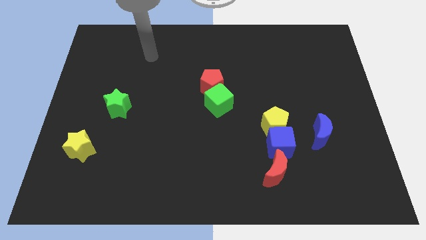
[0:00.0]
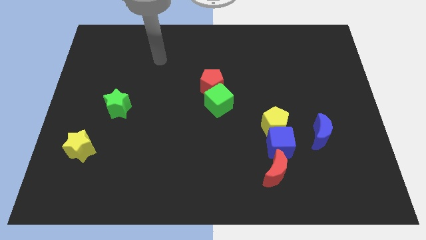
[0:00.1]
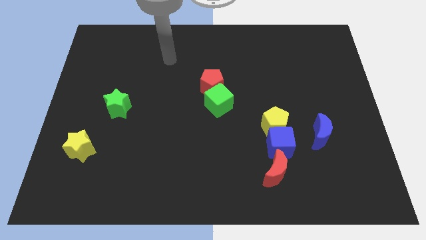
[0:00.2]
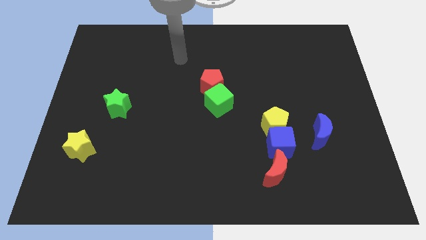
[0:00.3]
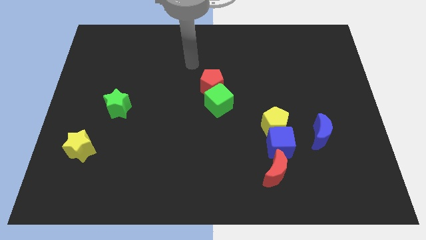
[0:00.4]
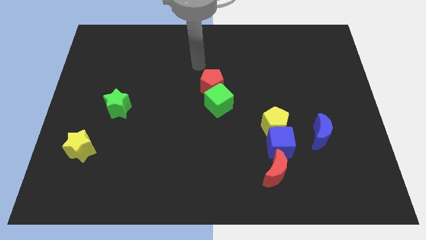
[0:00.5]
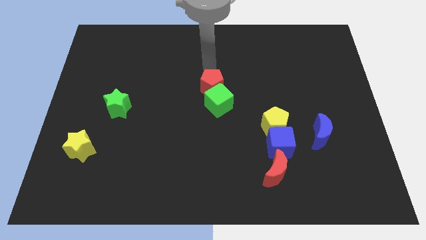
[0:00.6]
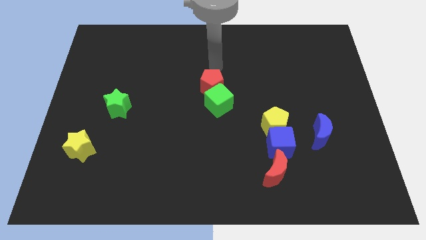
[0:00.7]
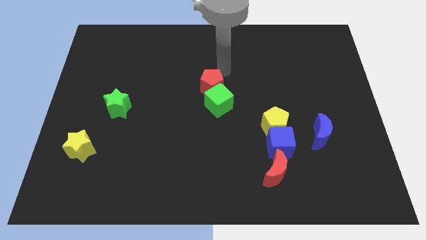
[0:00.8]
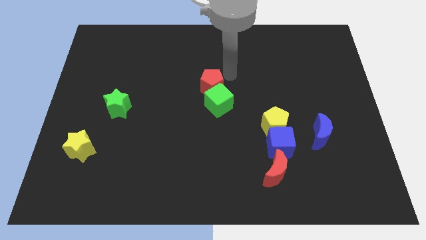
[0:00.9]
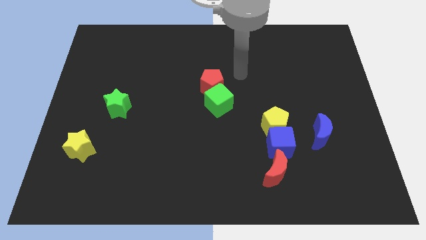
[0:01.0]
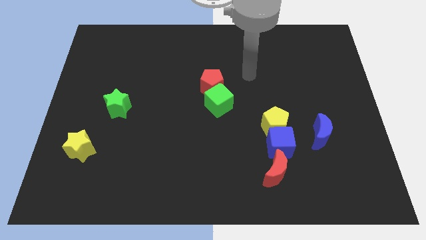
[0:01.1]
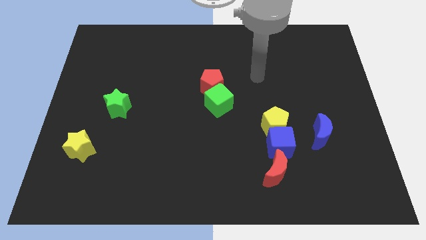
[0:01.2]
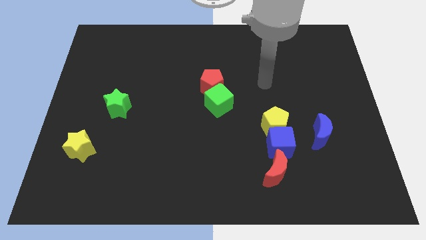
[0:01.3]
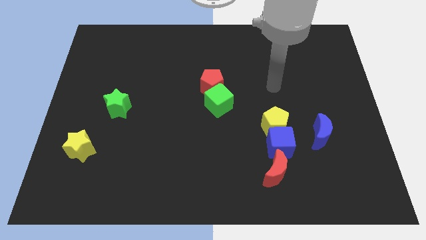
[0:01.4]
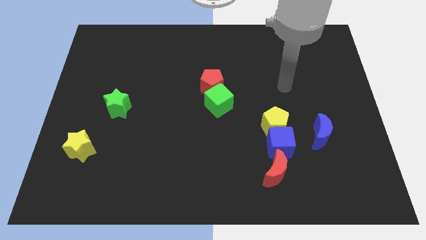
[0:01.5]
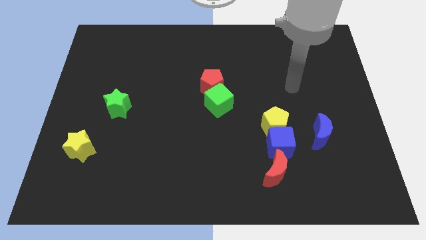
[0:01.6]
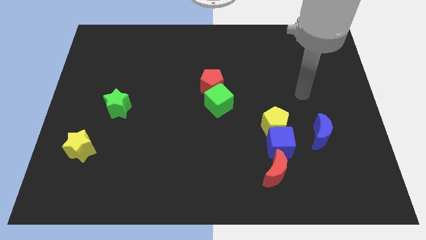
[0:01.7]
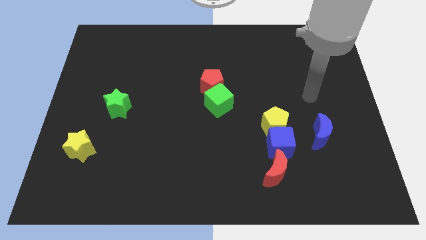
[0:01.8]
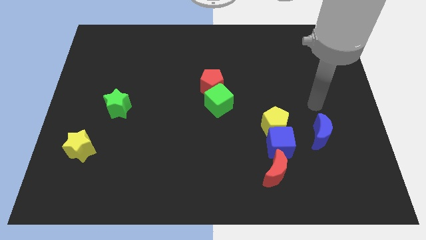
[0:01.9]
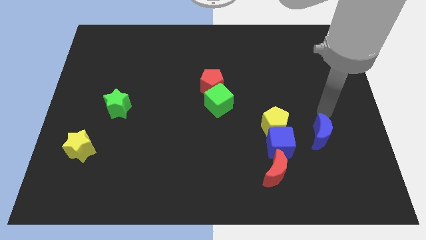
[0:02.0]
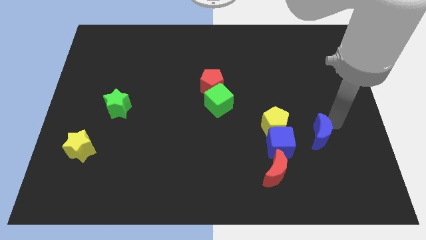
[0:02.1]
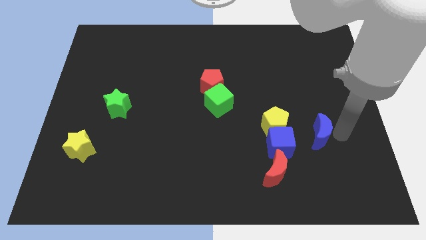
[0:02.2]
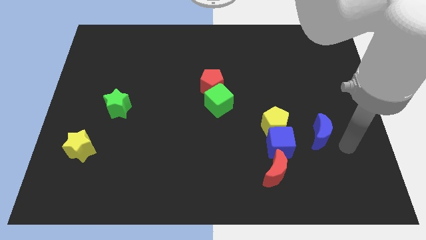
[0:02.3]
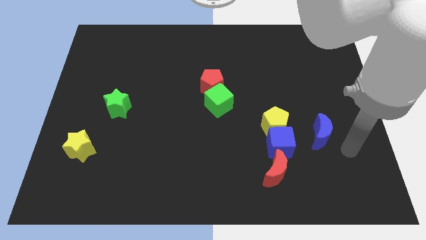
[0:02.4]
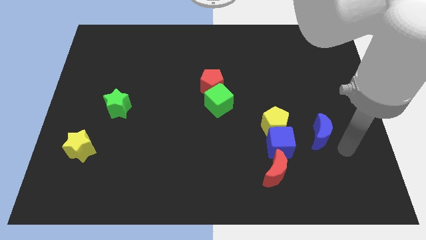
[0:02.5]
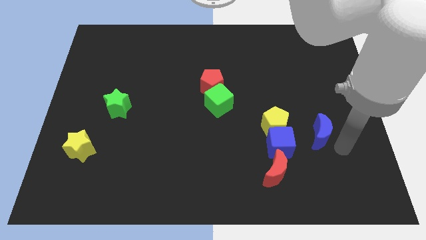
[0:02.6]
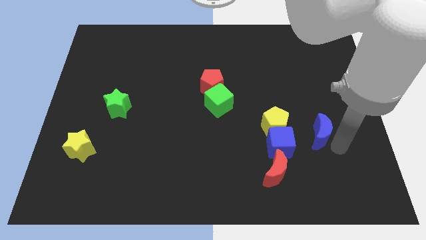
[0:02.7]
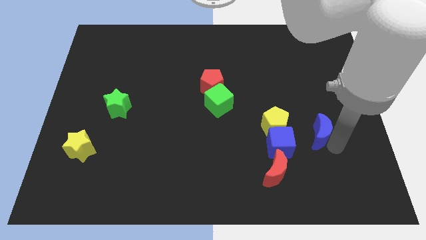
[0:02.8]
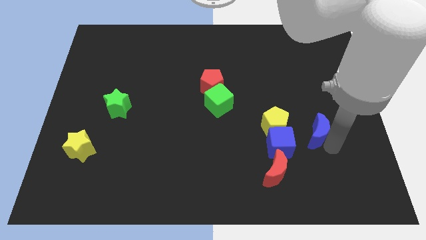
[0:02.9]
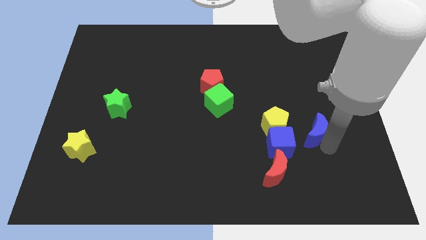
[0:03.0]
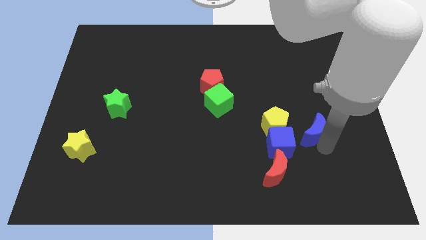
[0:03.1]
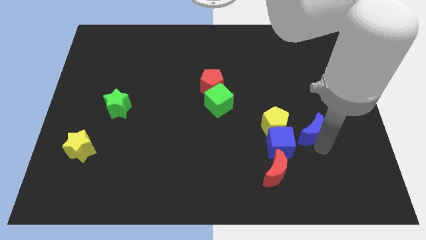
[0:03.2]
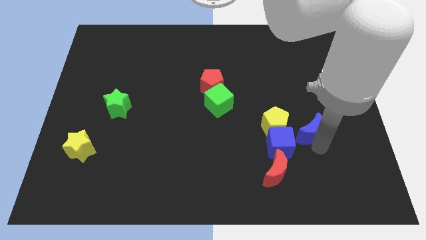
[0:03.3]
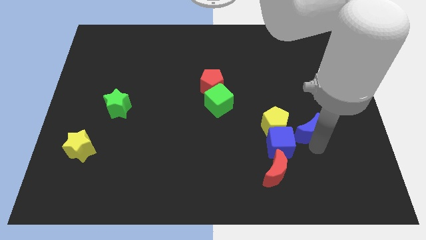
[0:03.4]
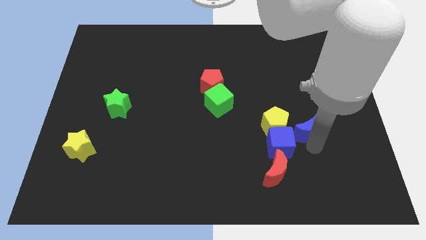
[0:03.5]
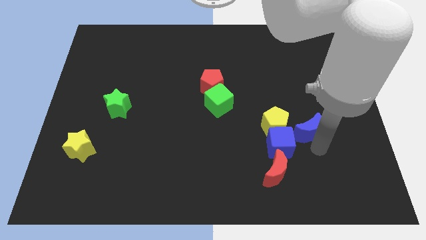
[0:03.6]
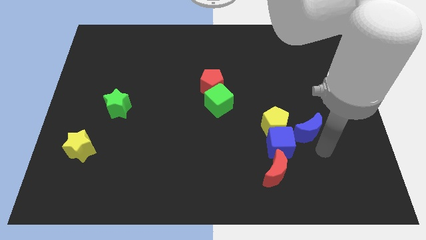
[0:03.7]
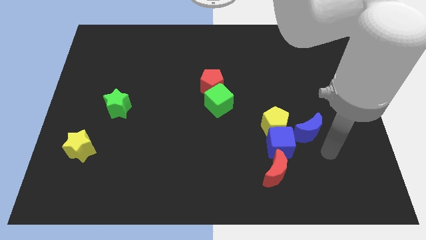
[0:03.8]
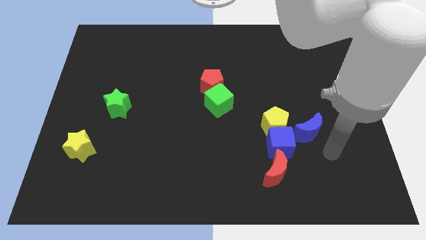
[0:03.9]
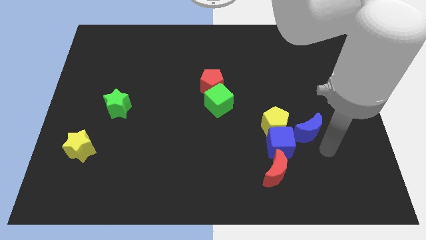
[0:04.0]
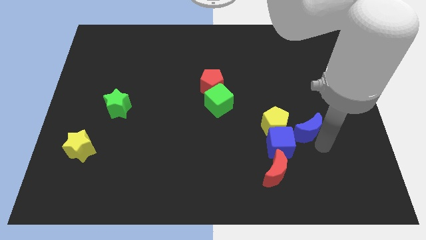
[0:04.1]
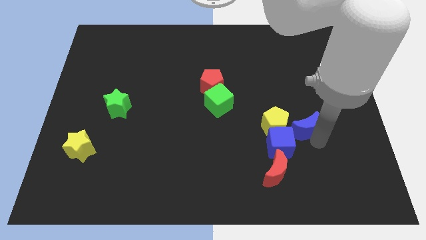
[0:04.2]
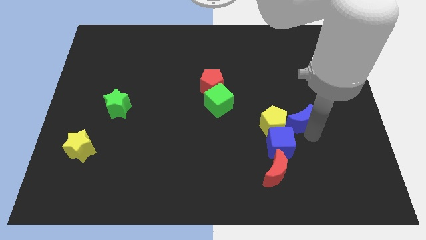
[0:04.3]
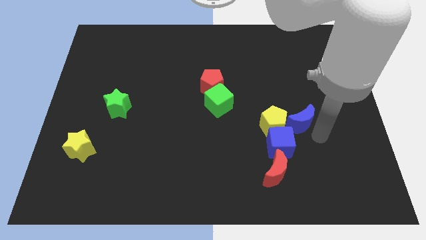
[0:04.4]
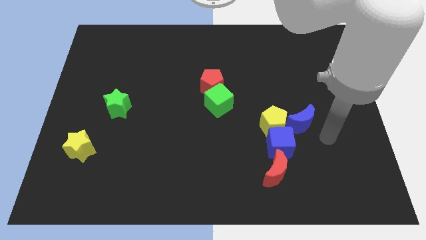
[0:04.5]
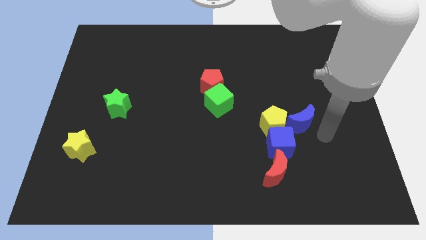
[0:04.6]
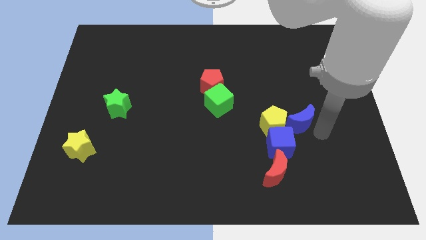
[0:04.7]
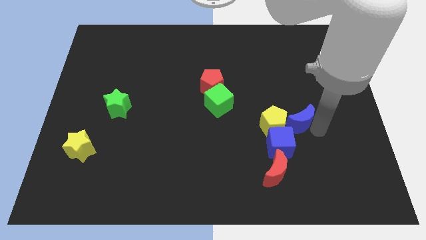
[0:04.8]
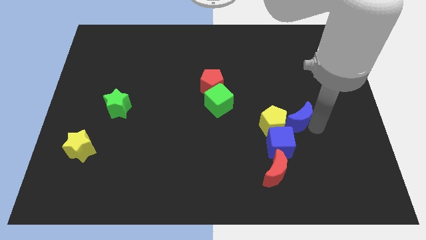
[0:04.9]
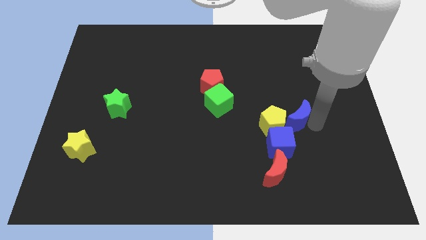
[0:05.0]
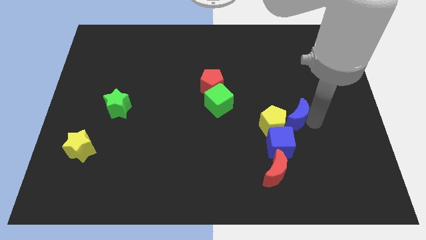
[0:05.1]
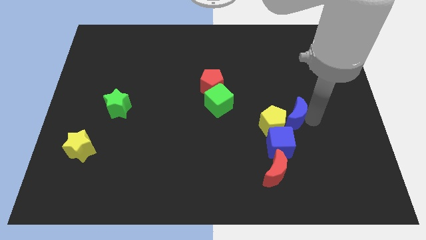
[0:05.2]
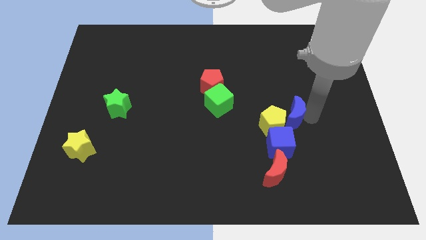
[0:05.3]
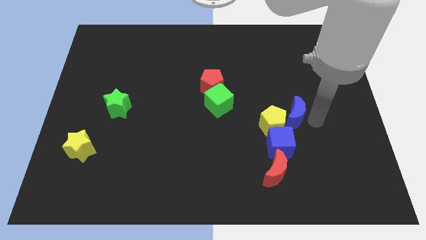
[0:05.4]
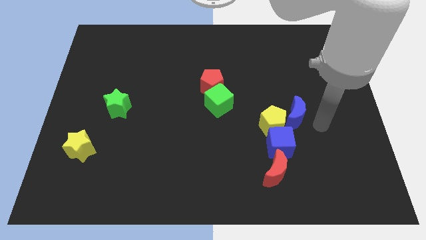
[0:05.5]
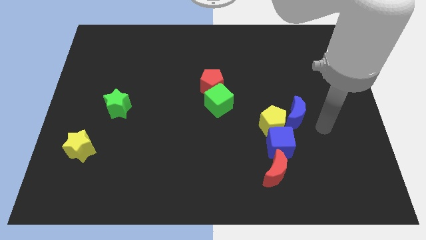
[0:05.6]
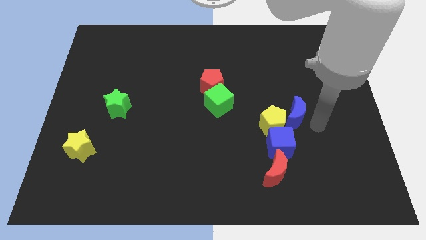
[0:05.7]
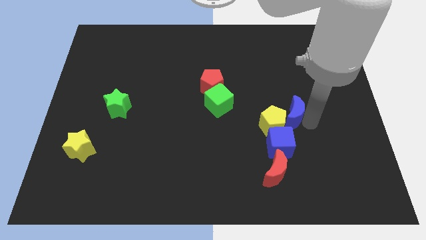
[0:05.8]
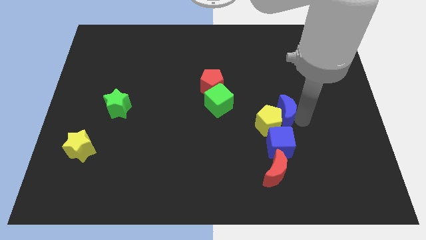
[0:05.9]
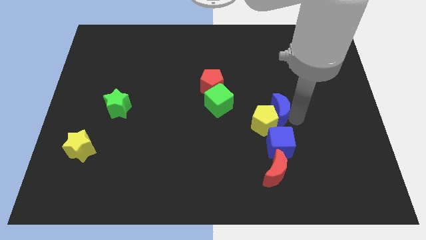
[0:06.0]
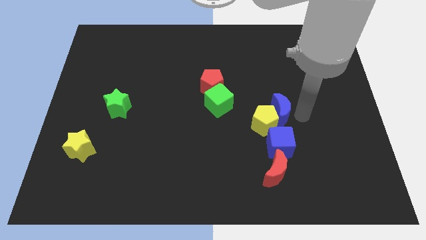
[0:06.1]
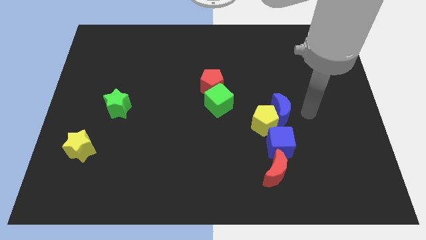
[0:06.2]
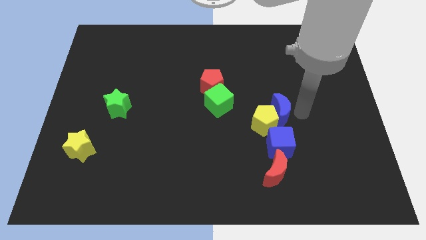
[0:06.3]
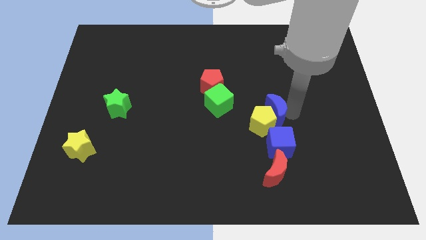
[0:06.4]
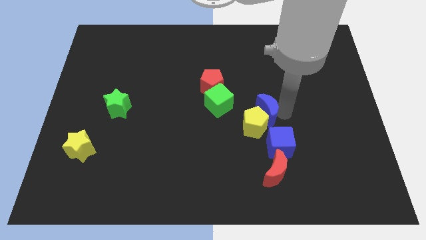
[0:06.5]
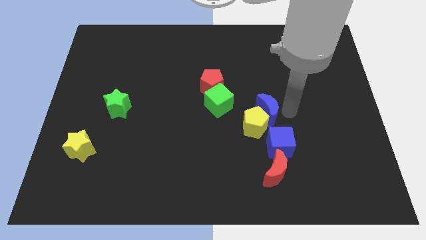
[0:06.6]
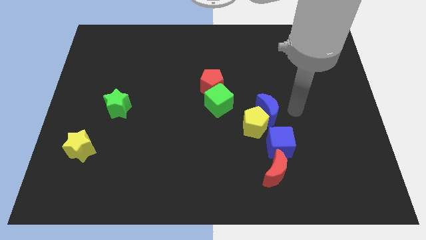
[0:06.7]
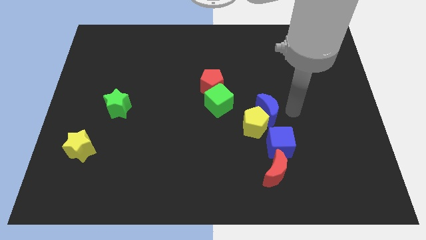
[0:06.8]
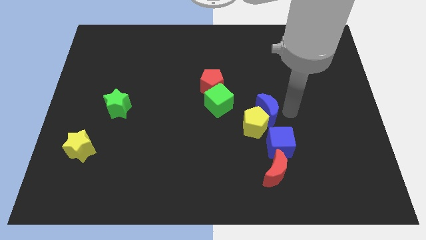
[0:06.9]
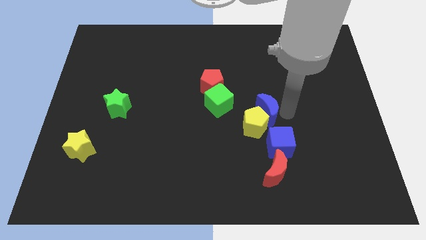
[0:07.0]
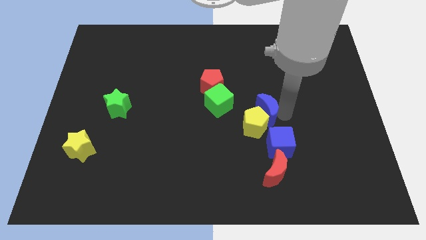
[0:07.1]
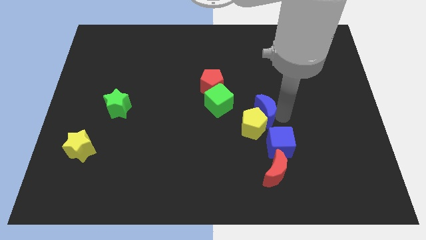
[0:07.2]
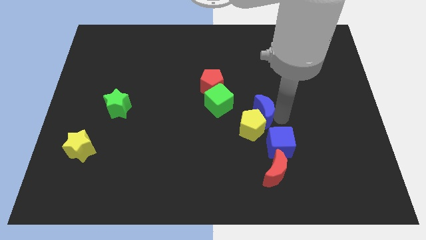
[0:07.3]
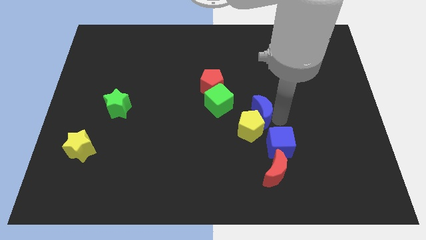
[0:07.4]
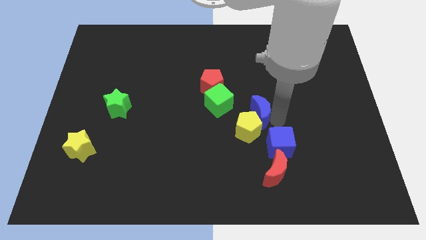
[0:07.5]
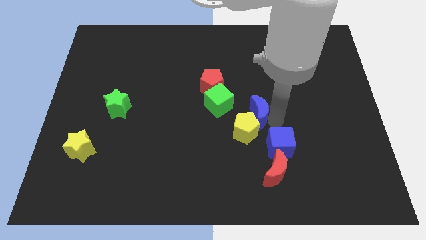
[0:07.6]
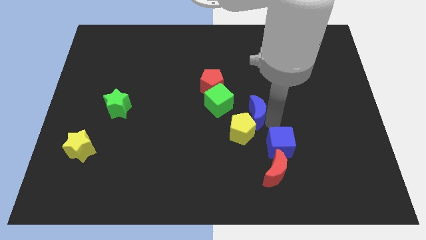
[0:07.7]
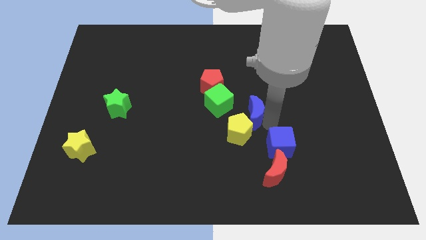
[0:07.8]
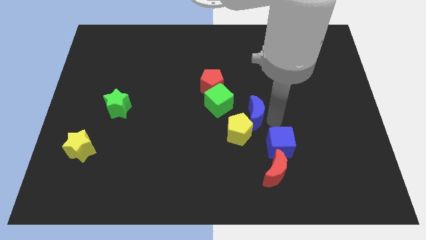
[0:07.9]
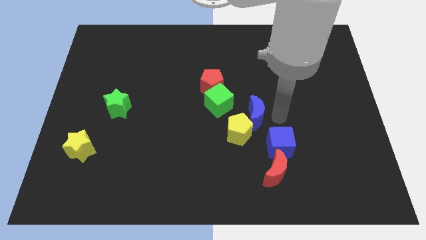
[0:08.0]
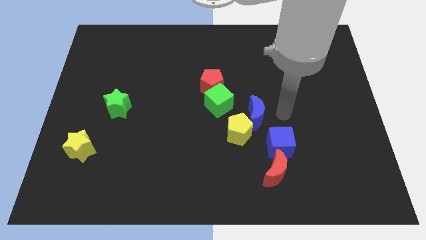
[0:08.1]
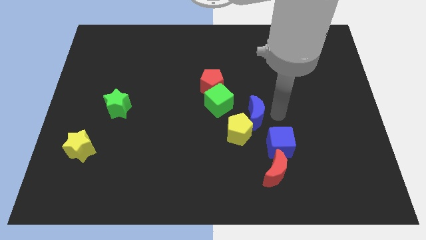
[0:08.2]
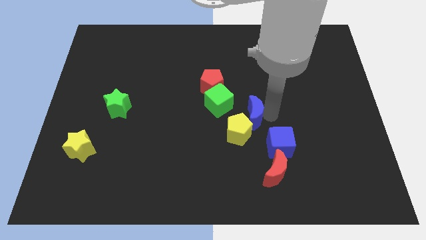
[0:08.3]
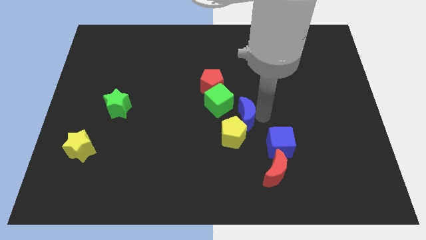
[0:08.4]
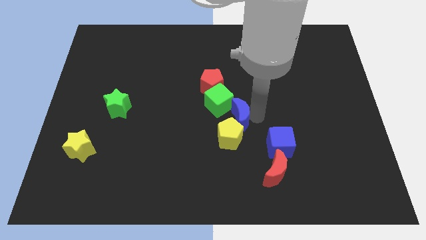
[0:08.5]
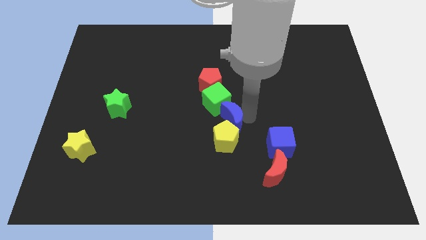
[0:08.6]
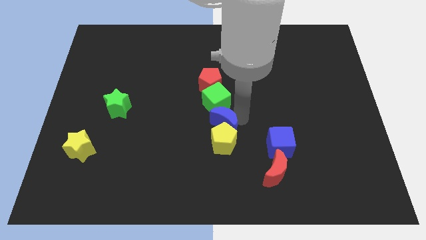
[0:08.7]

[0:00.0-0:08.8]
move the blue moon left
